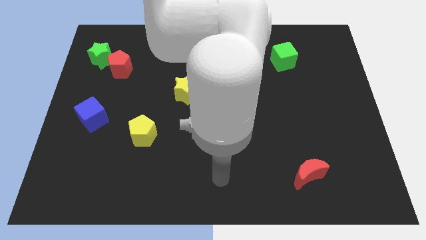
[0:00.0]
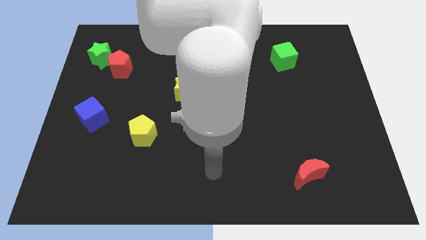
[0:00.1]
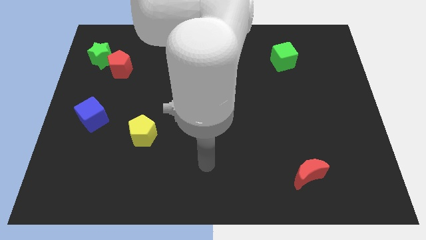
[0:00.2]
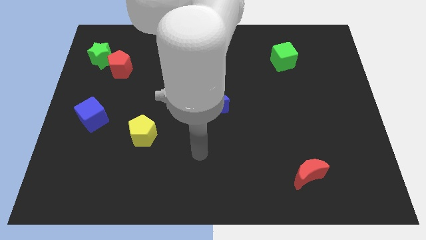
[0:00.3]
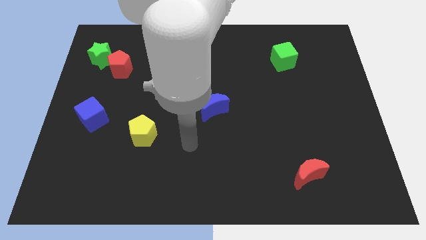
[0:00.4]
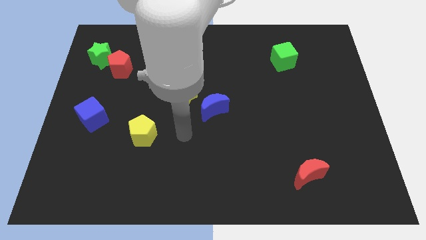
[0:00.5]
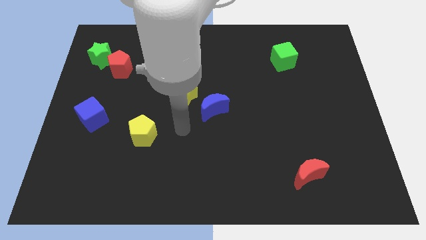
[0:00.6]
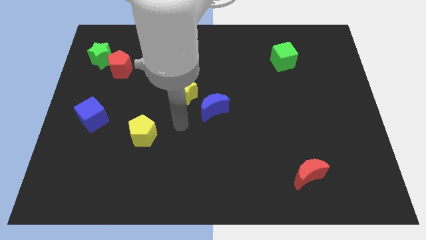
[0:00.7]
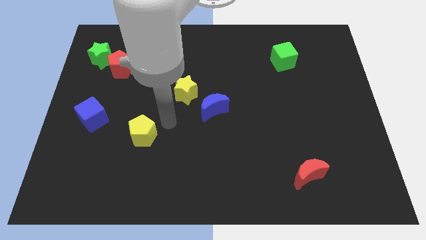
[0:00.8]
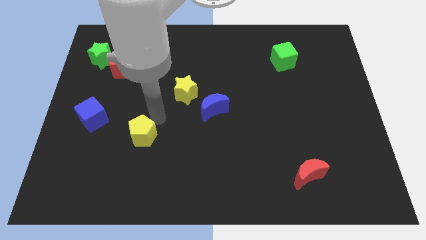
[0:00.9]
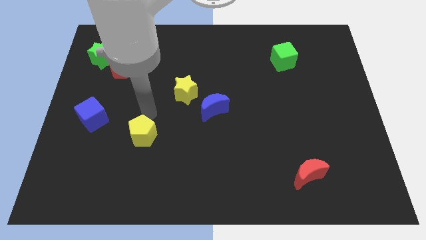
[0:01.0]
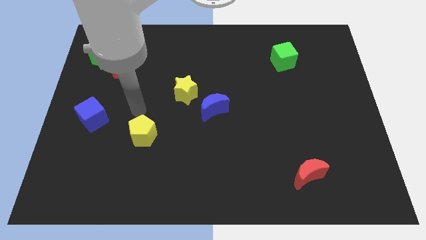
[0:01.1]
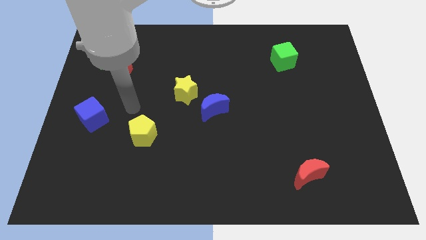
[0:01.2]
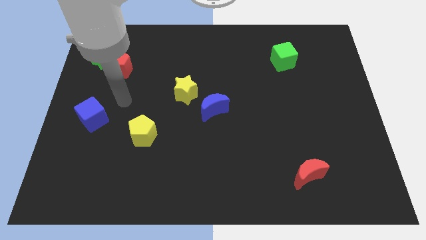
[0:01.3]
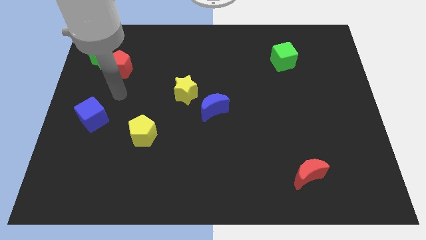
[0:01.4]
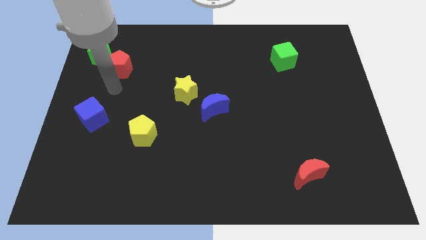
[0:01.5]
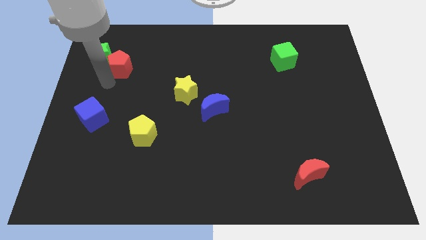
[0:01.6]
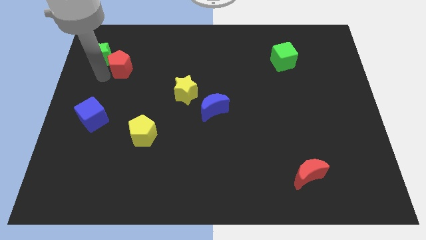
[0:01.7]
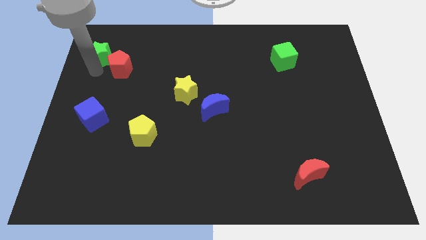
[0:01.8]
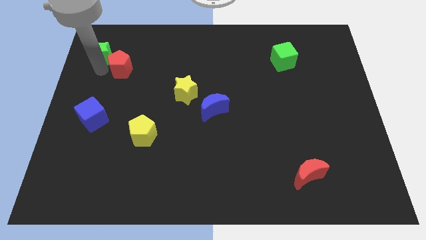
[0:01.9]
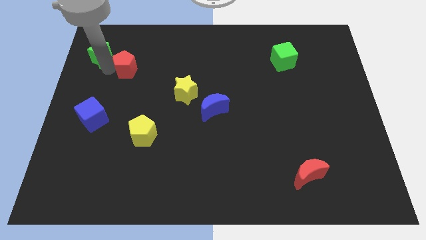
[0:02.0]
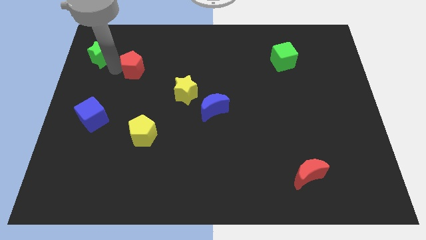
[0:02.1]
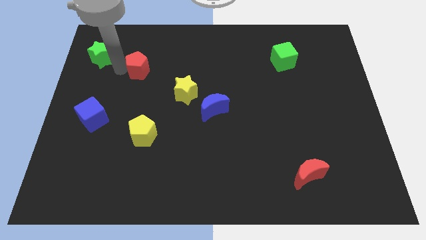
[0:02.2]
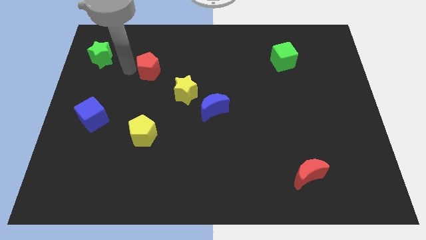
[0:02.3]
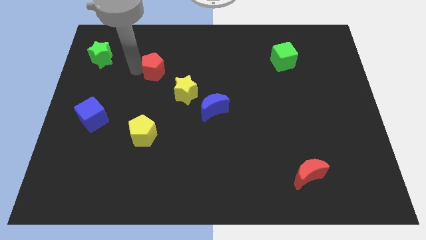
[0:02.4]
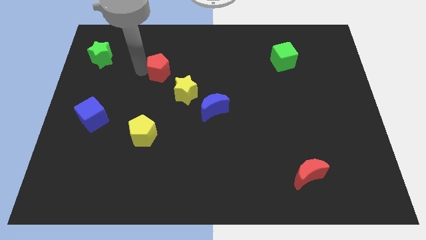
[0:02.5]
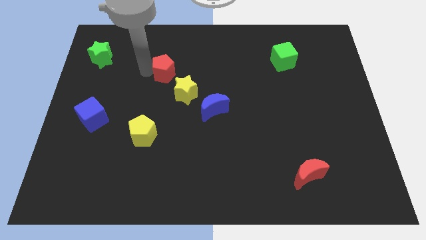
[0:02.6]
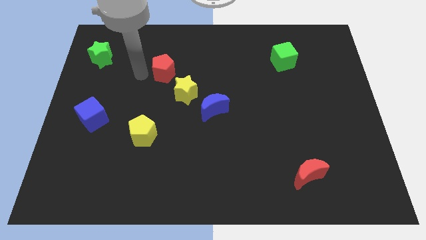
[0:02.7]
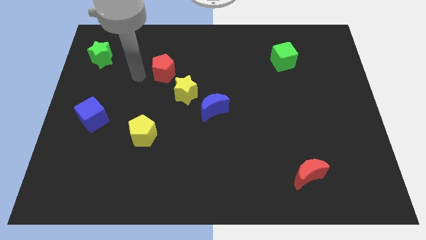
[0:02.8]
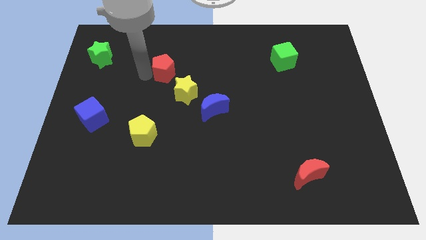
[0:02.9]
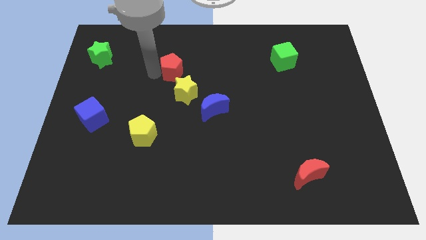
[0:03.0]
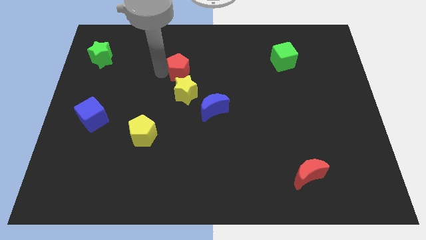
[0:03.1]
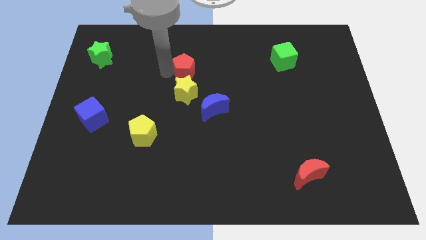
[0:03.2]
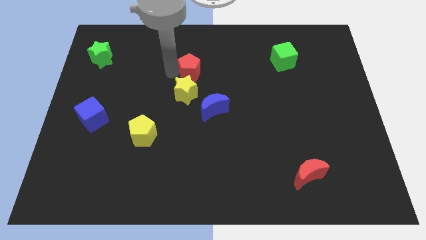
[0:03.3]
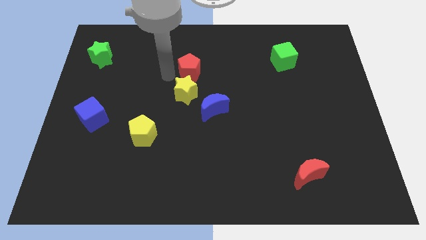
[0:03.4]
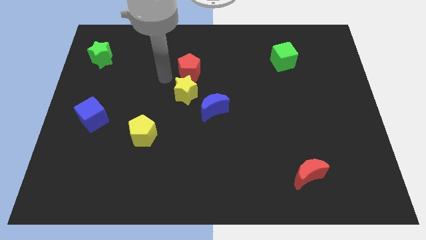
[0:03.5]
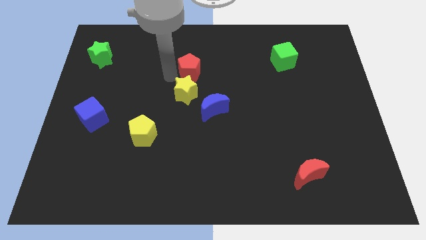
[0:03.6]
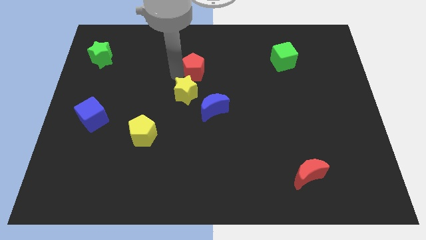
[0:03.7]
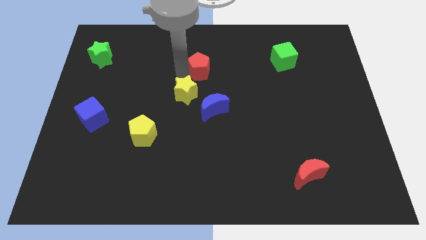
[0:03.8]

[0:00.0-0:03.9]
slide the red pentagon right

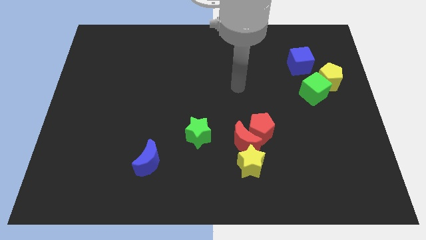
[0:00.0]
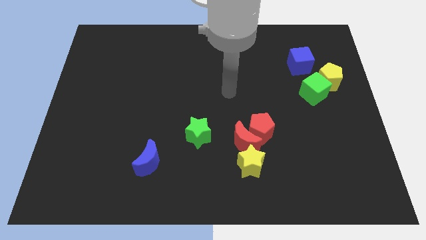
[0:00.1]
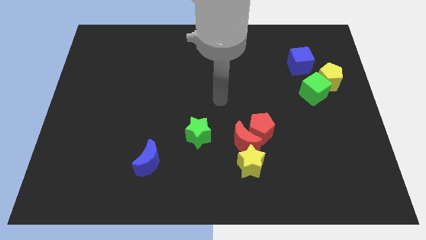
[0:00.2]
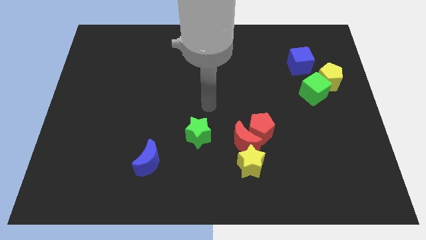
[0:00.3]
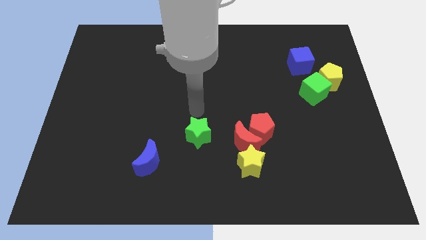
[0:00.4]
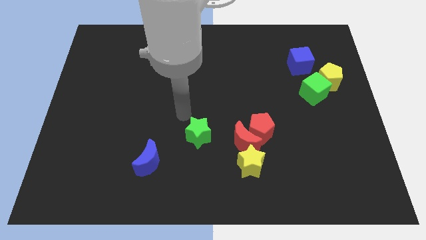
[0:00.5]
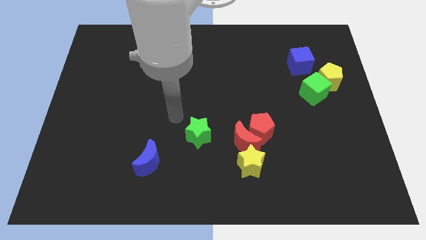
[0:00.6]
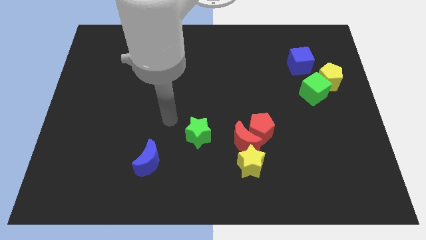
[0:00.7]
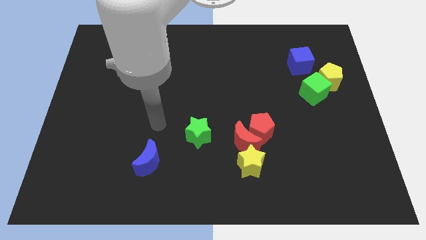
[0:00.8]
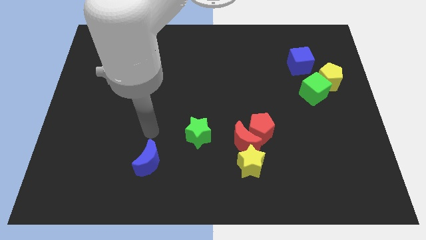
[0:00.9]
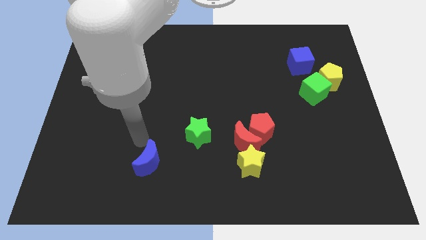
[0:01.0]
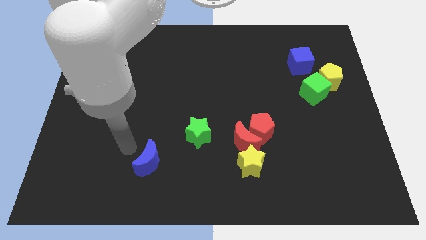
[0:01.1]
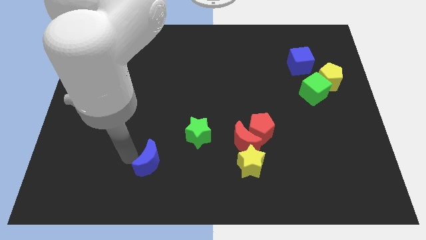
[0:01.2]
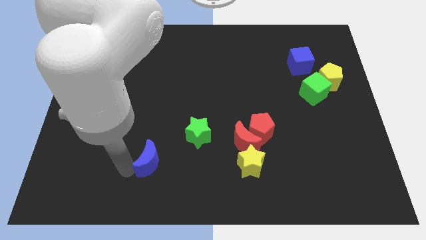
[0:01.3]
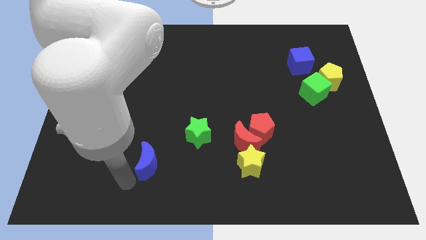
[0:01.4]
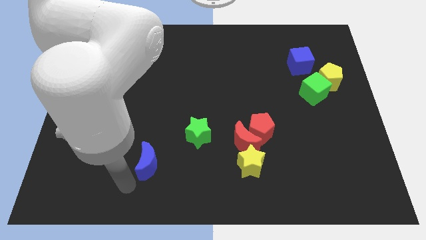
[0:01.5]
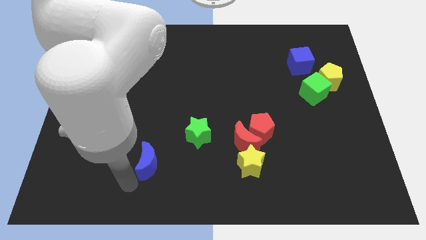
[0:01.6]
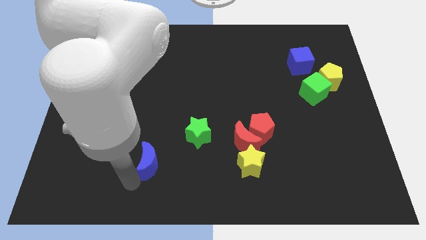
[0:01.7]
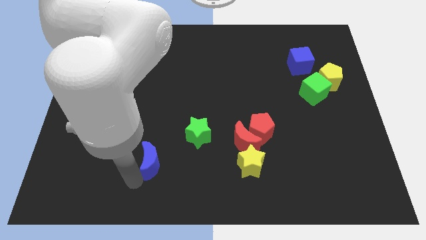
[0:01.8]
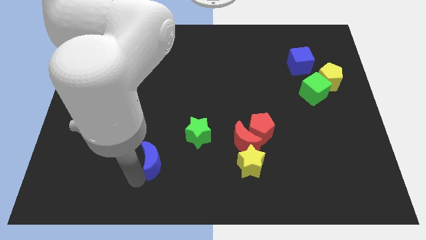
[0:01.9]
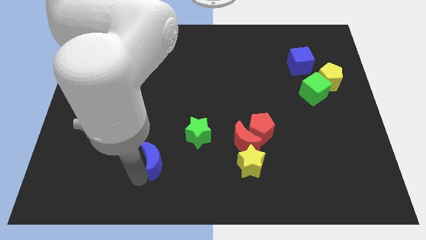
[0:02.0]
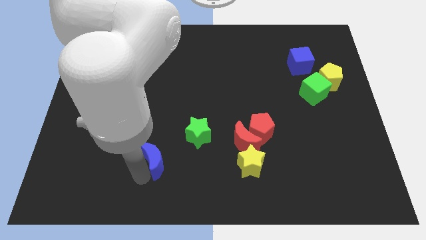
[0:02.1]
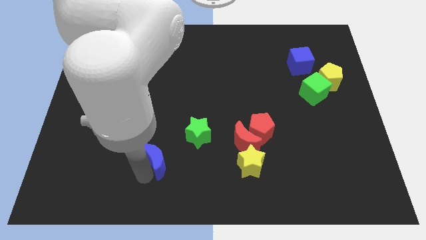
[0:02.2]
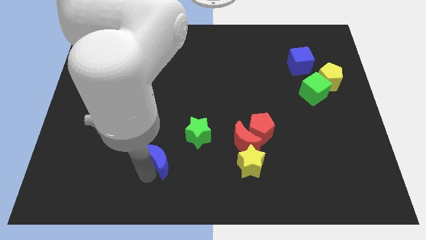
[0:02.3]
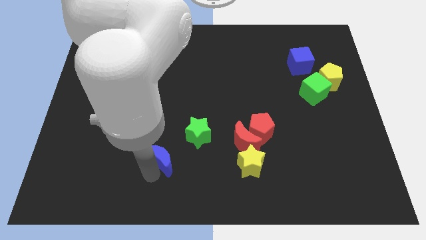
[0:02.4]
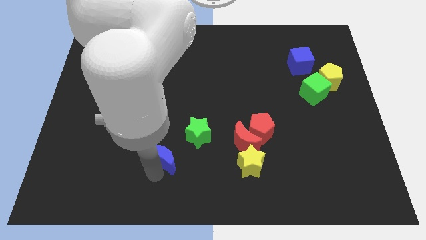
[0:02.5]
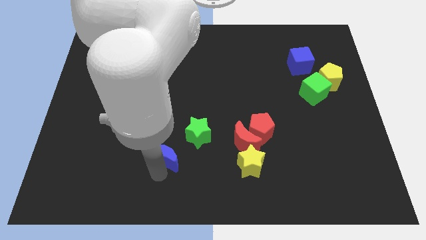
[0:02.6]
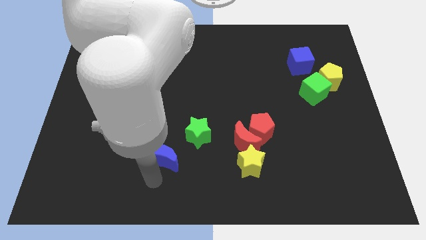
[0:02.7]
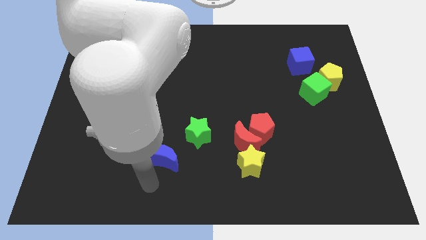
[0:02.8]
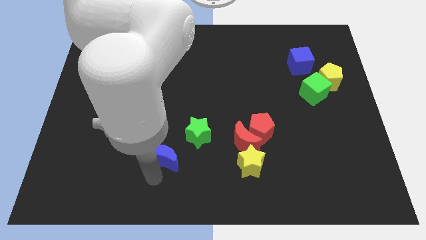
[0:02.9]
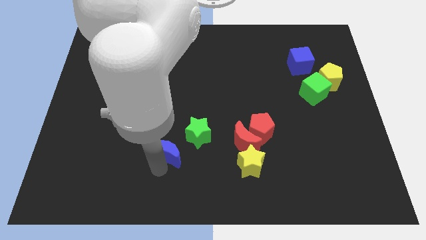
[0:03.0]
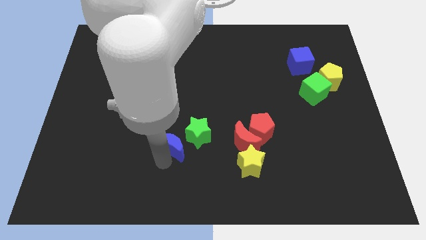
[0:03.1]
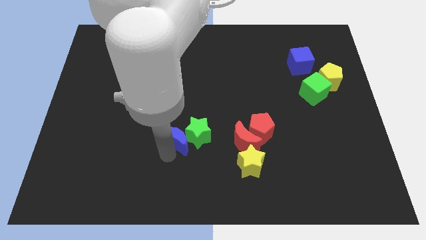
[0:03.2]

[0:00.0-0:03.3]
move the blue moon up and then right a bit

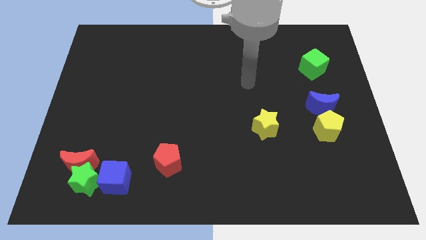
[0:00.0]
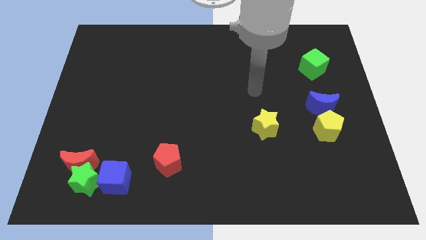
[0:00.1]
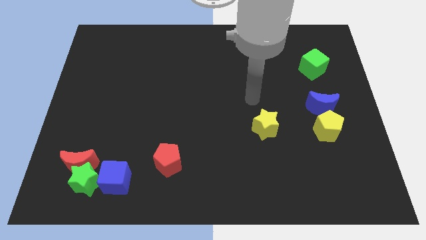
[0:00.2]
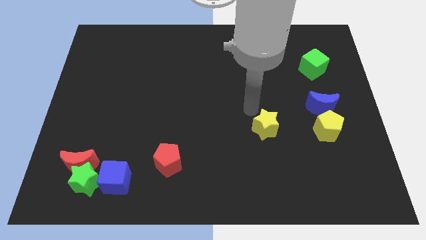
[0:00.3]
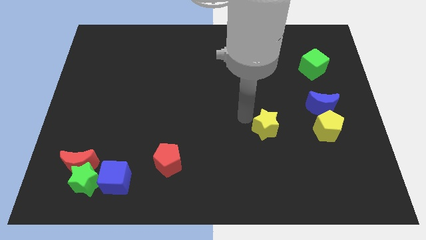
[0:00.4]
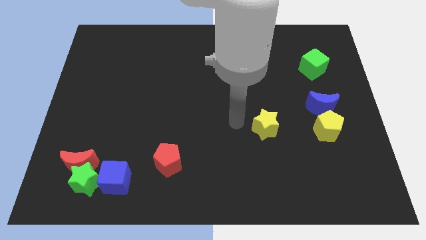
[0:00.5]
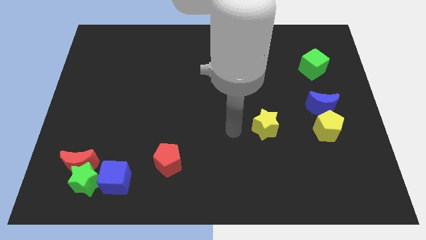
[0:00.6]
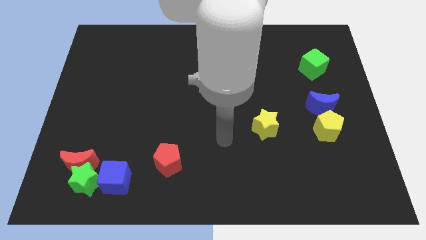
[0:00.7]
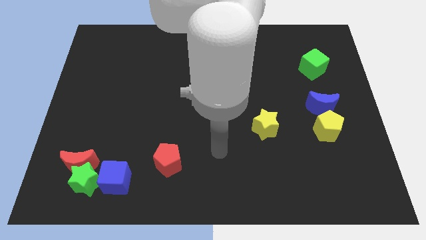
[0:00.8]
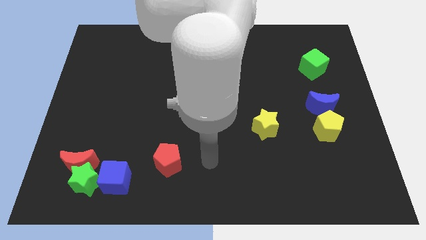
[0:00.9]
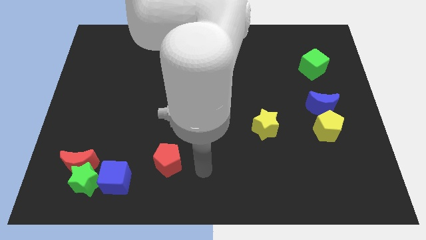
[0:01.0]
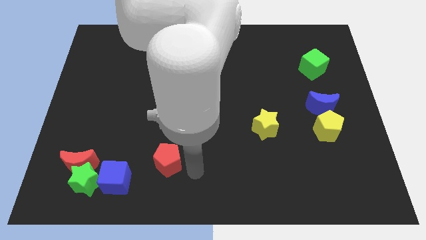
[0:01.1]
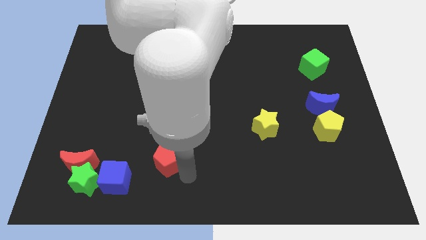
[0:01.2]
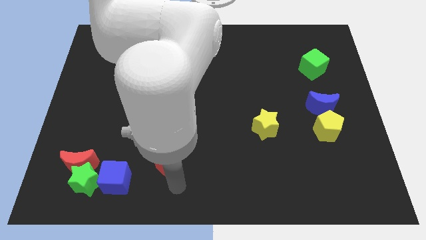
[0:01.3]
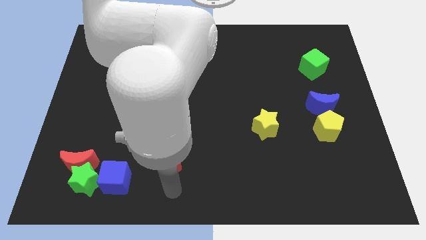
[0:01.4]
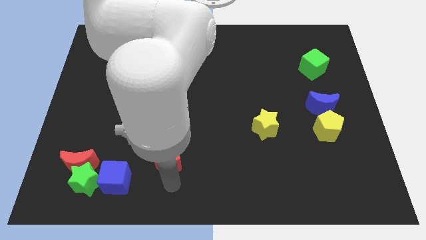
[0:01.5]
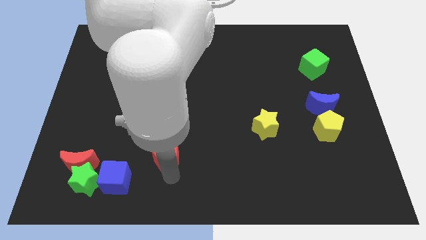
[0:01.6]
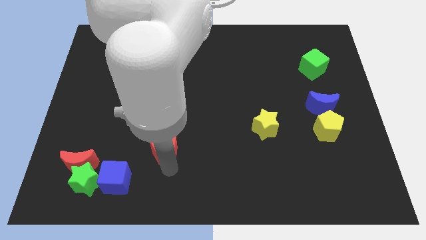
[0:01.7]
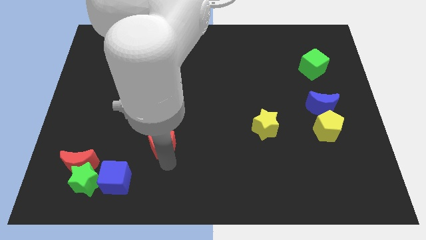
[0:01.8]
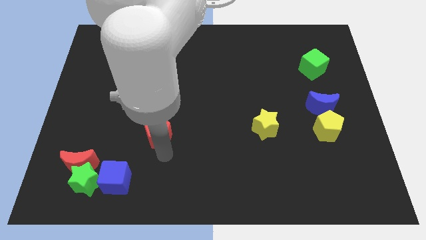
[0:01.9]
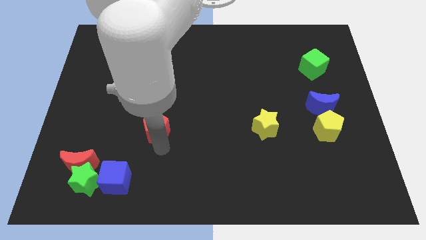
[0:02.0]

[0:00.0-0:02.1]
move the red pentagon a little up
